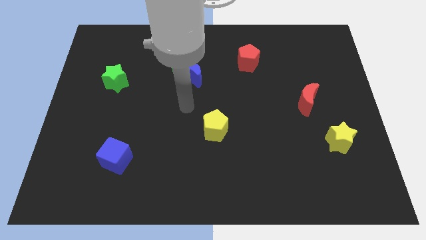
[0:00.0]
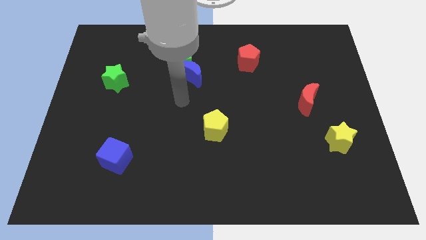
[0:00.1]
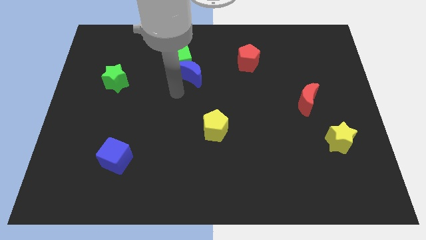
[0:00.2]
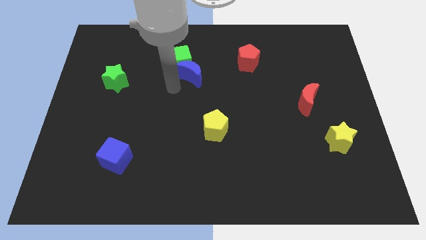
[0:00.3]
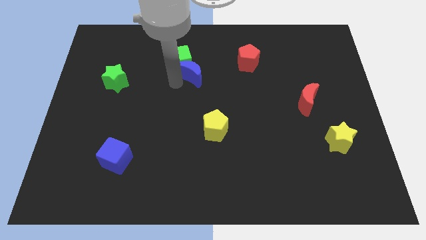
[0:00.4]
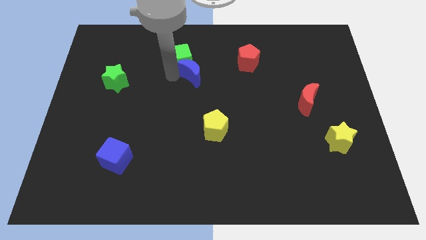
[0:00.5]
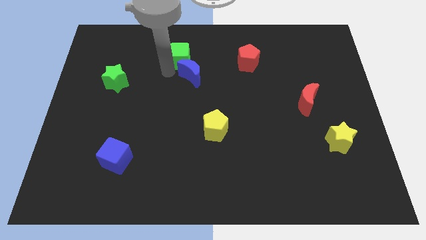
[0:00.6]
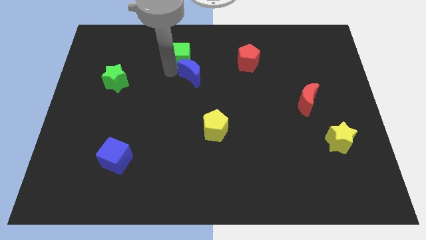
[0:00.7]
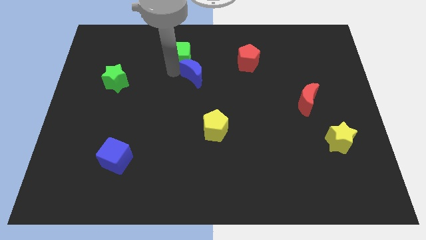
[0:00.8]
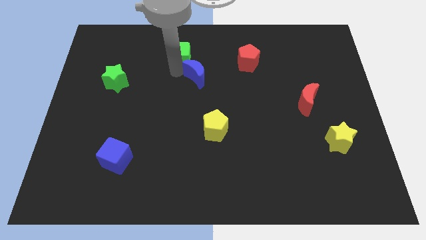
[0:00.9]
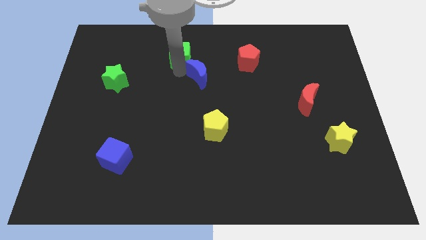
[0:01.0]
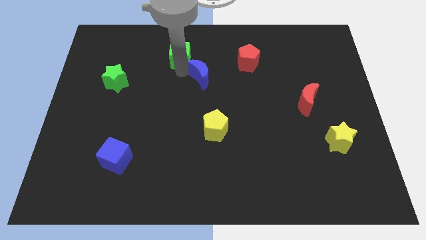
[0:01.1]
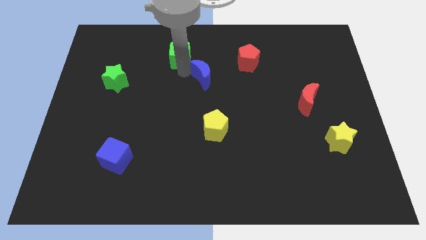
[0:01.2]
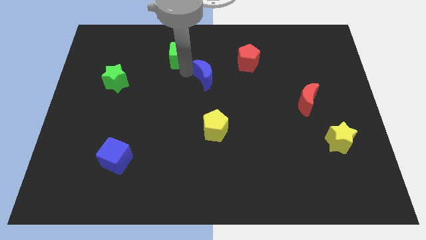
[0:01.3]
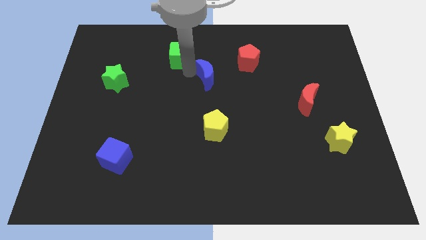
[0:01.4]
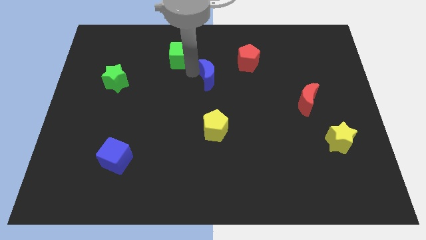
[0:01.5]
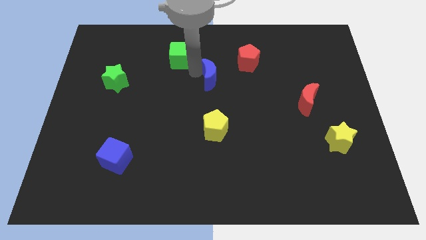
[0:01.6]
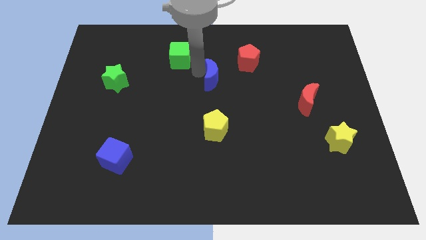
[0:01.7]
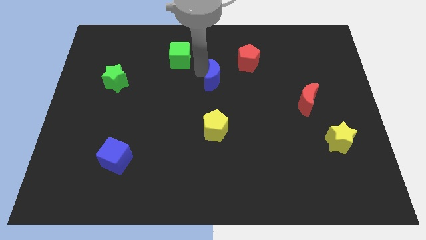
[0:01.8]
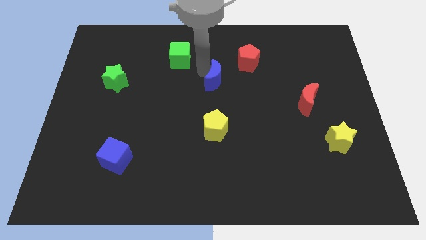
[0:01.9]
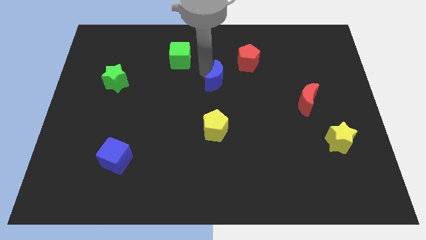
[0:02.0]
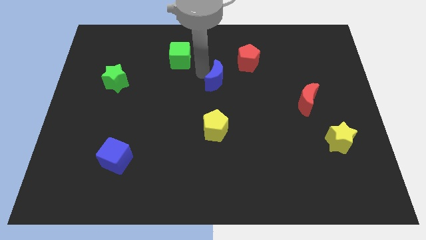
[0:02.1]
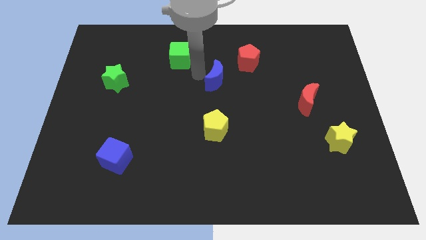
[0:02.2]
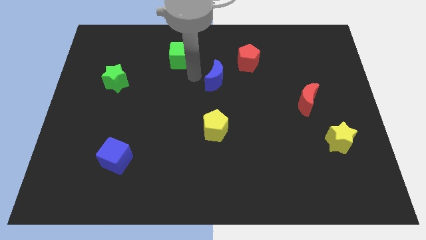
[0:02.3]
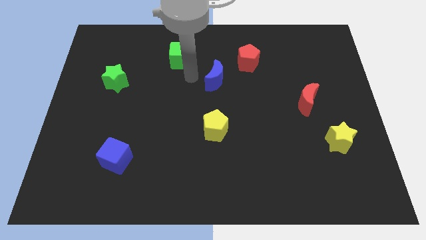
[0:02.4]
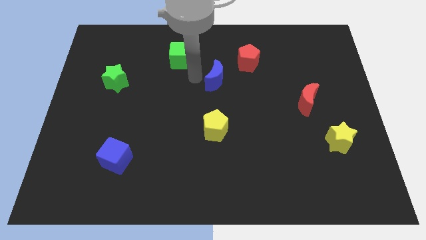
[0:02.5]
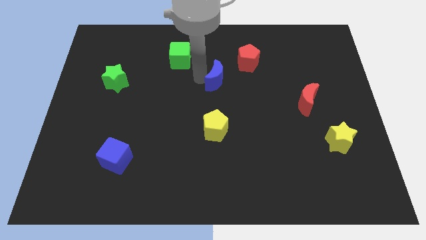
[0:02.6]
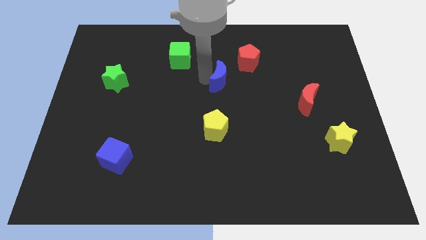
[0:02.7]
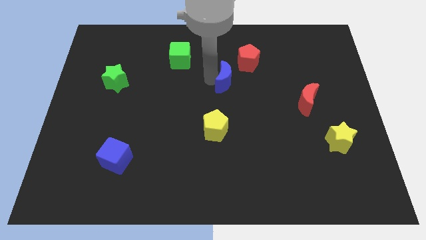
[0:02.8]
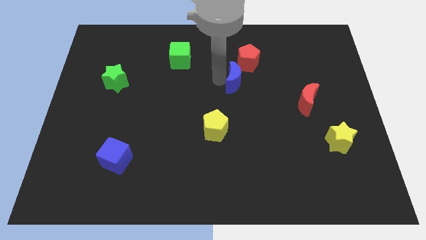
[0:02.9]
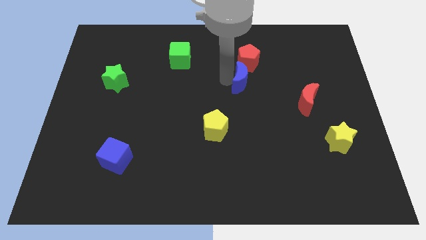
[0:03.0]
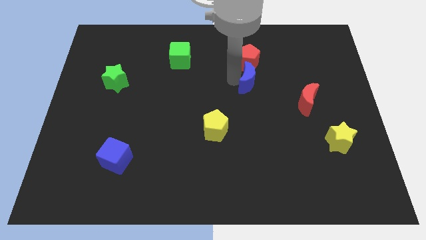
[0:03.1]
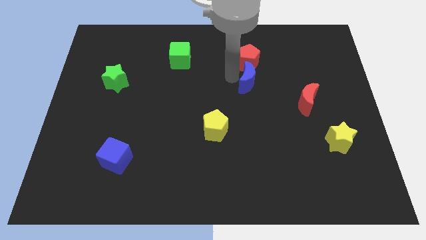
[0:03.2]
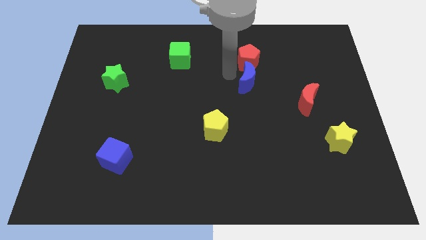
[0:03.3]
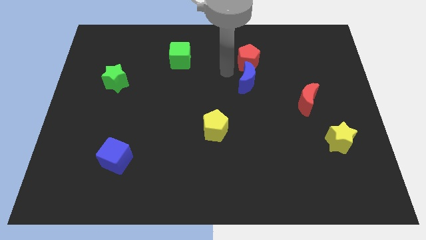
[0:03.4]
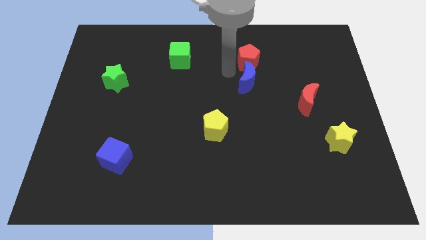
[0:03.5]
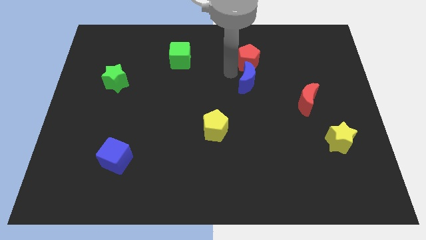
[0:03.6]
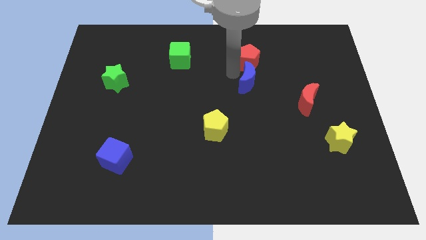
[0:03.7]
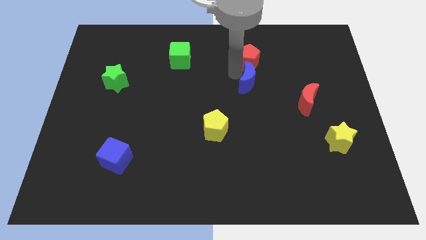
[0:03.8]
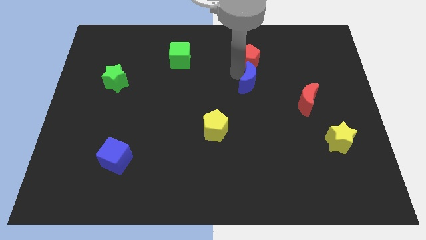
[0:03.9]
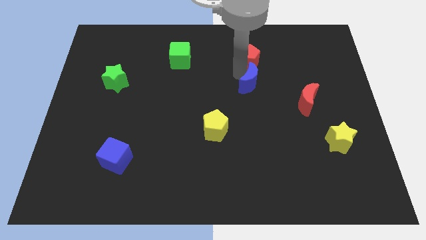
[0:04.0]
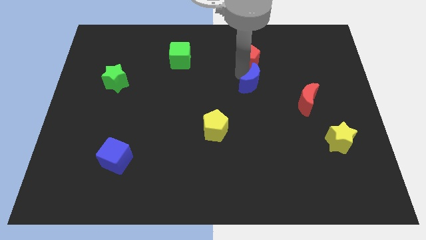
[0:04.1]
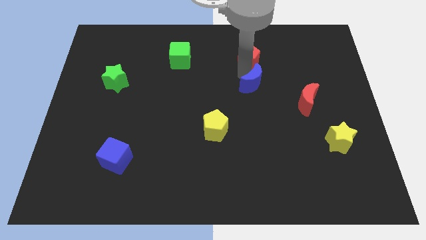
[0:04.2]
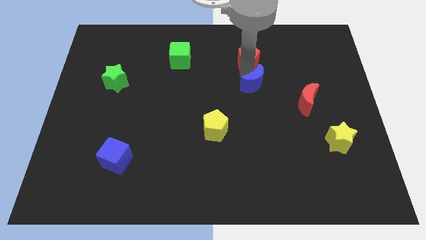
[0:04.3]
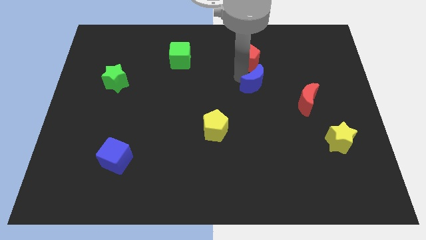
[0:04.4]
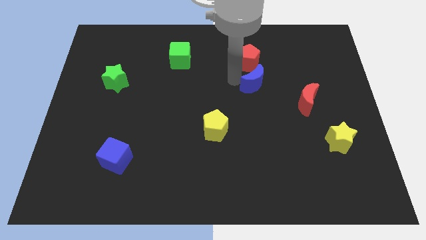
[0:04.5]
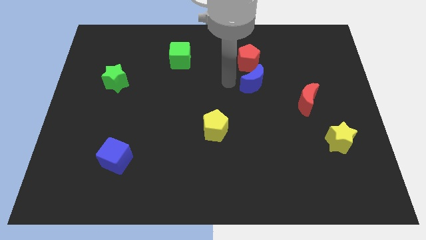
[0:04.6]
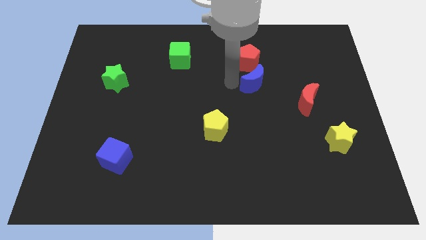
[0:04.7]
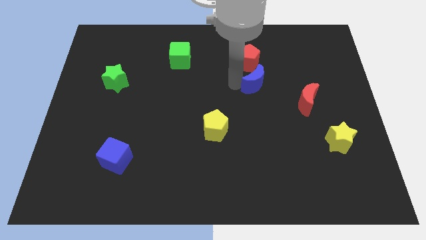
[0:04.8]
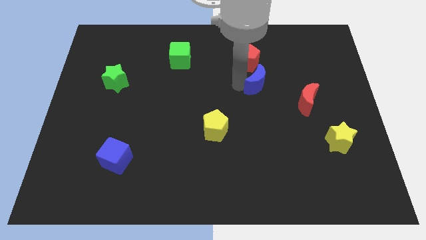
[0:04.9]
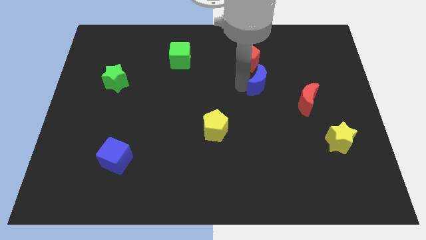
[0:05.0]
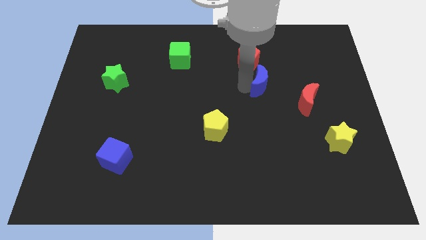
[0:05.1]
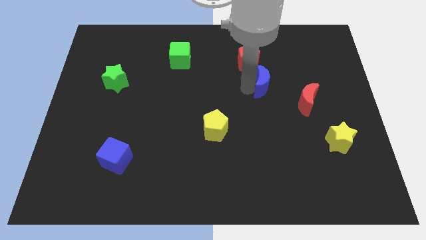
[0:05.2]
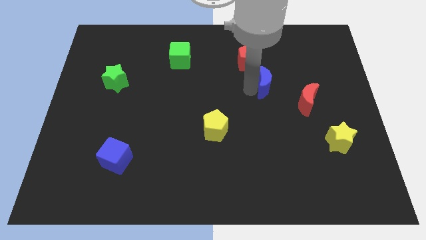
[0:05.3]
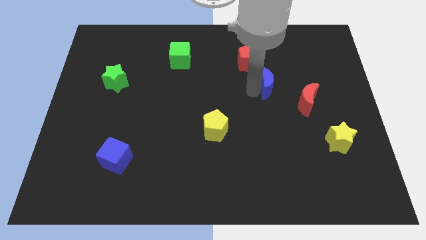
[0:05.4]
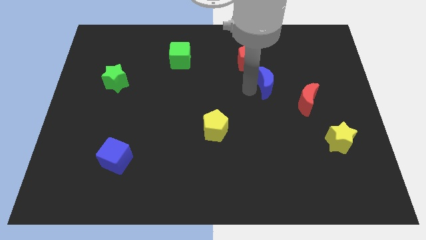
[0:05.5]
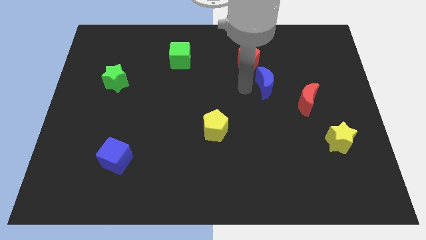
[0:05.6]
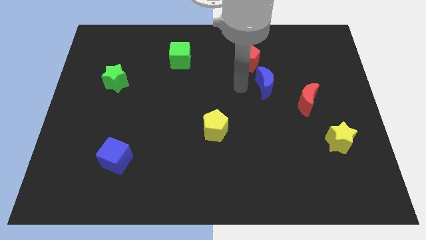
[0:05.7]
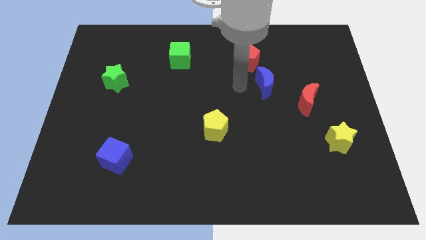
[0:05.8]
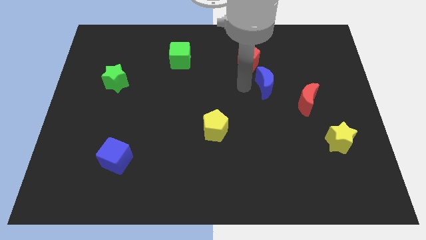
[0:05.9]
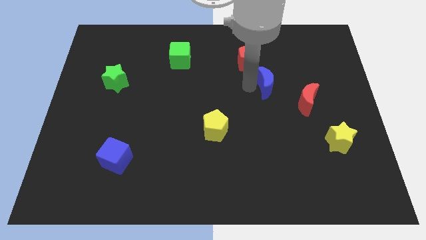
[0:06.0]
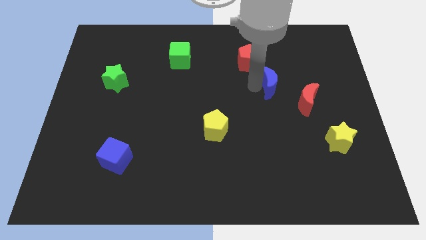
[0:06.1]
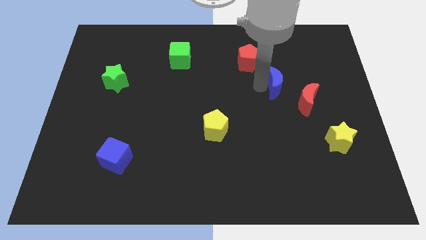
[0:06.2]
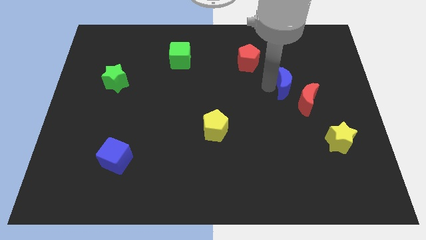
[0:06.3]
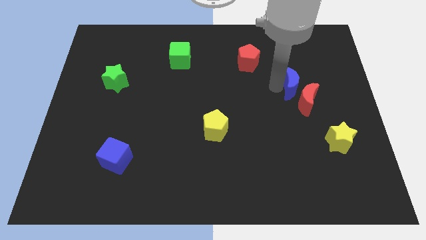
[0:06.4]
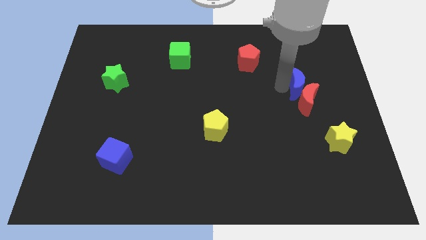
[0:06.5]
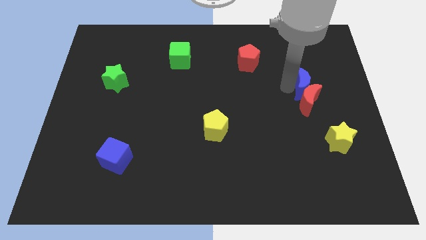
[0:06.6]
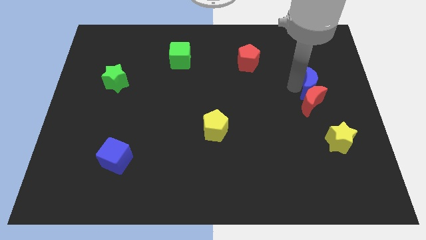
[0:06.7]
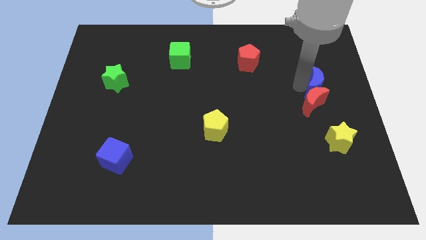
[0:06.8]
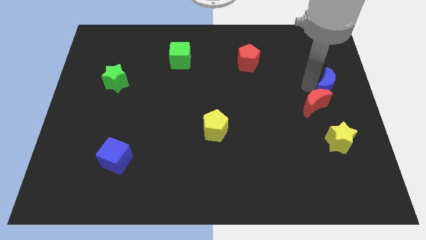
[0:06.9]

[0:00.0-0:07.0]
slide the blue moon to the right side of the board
